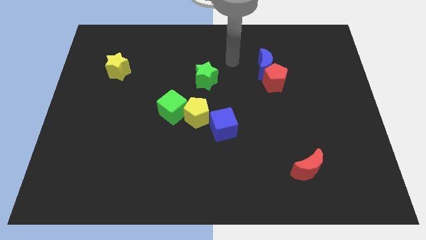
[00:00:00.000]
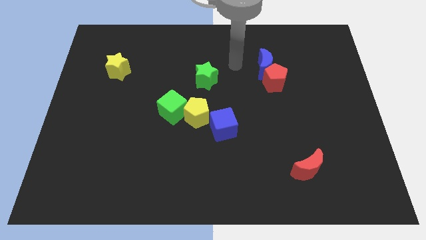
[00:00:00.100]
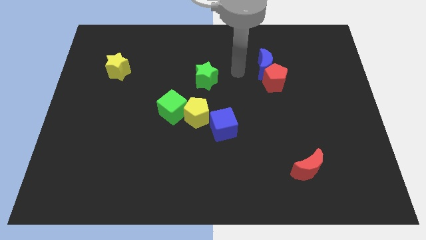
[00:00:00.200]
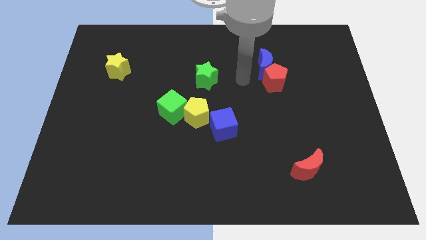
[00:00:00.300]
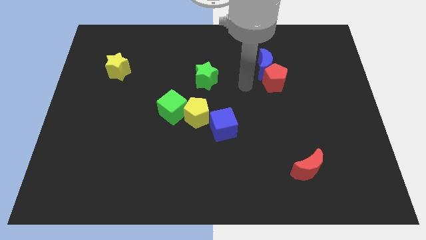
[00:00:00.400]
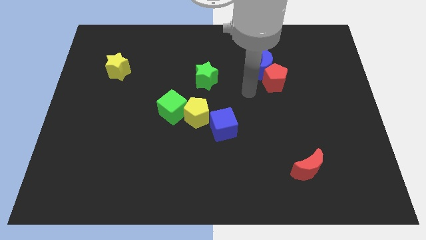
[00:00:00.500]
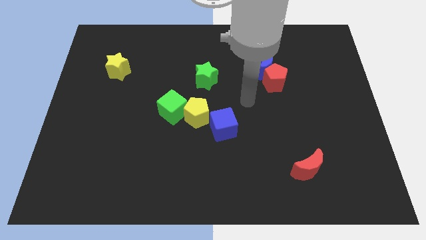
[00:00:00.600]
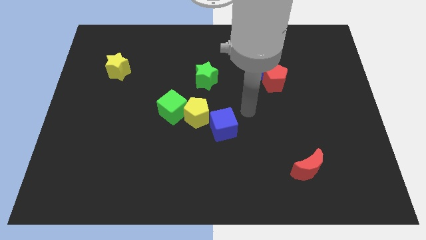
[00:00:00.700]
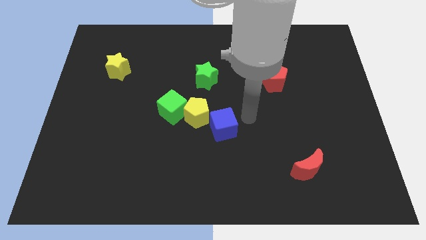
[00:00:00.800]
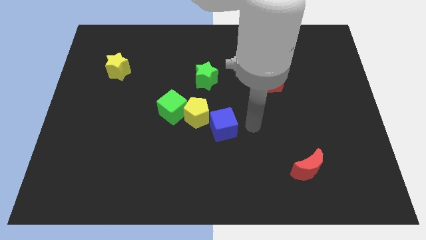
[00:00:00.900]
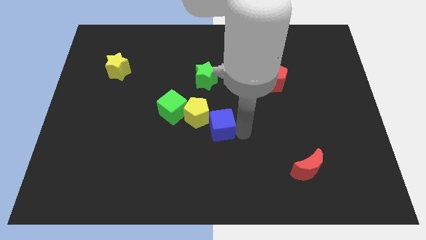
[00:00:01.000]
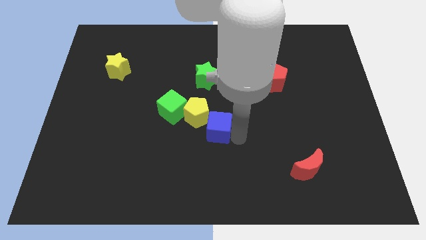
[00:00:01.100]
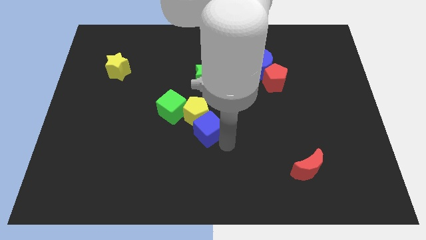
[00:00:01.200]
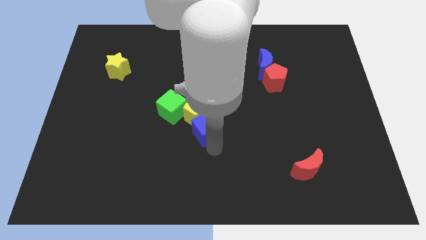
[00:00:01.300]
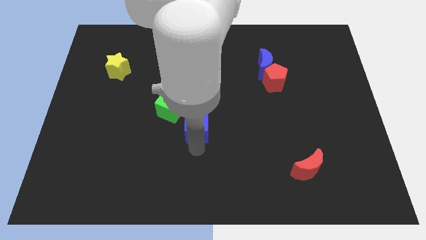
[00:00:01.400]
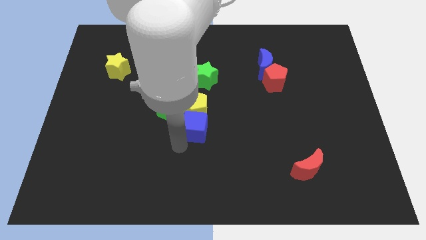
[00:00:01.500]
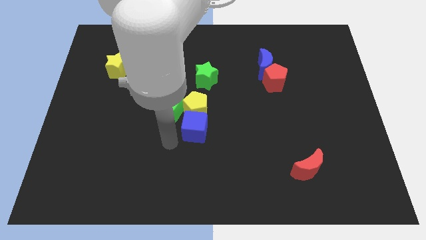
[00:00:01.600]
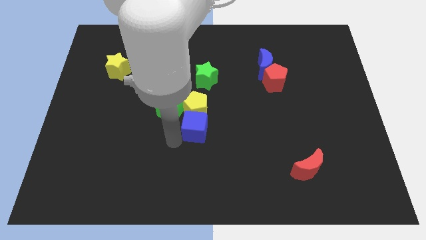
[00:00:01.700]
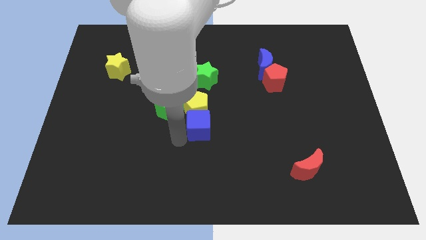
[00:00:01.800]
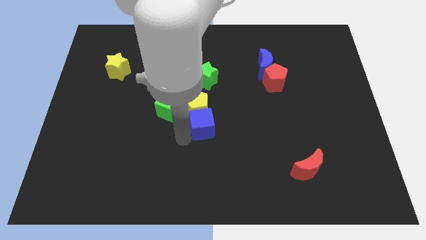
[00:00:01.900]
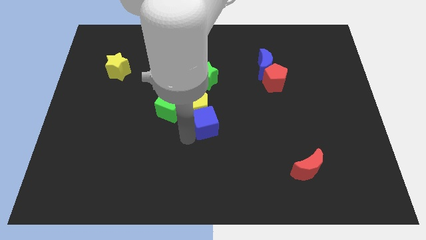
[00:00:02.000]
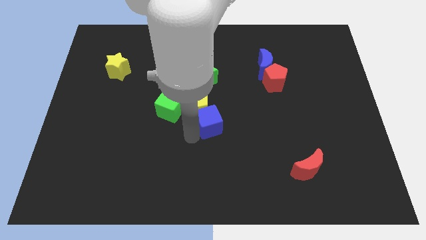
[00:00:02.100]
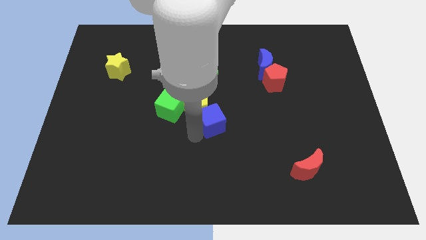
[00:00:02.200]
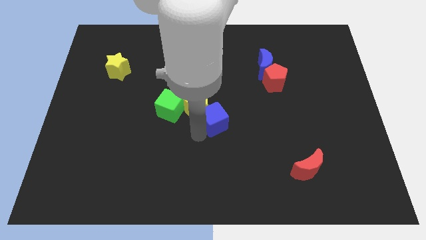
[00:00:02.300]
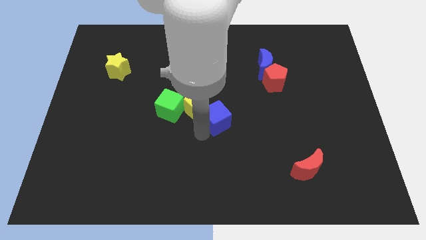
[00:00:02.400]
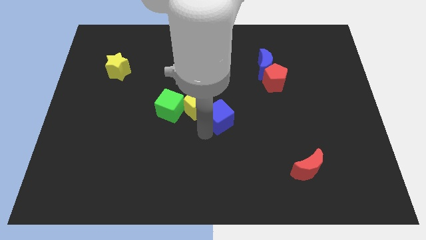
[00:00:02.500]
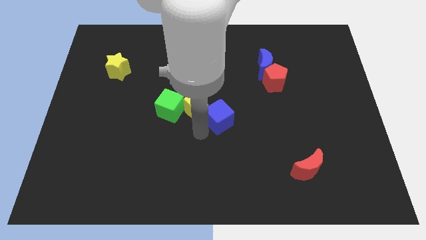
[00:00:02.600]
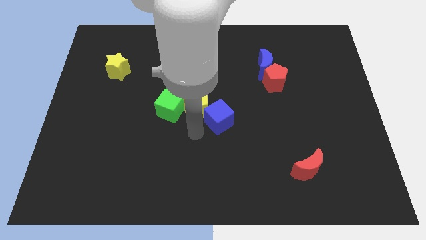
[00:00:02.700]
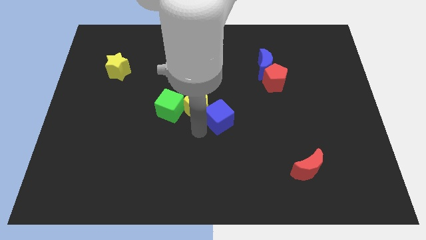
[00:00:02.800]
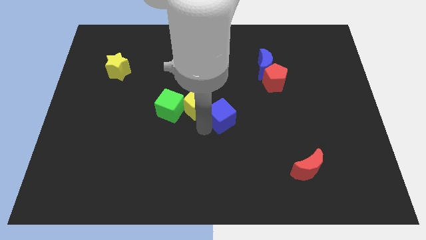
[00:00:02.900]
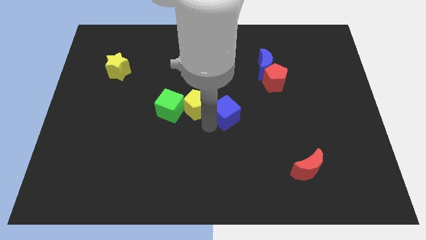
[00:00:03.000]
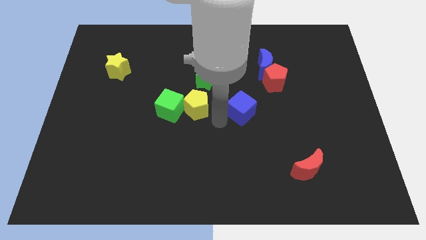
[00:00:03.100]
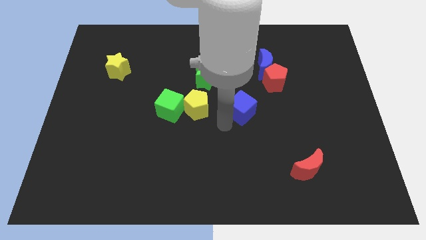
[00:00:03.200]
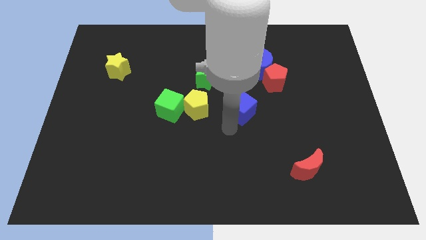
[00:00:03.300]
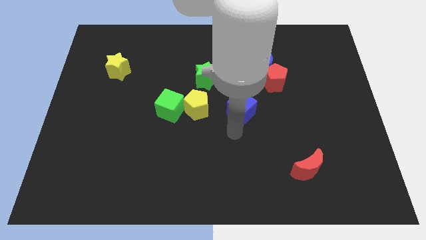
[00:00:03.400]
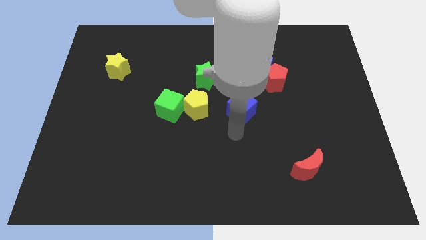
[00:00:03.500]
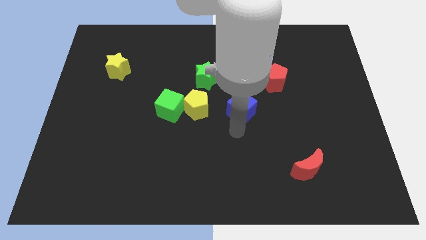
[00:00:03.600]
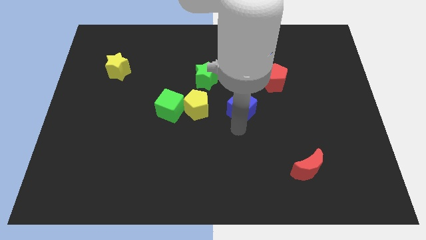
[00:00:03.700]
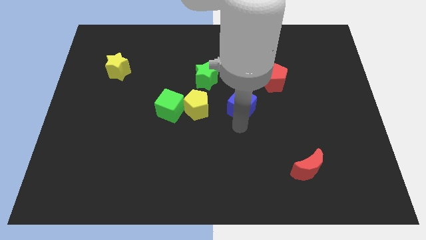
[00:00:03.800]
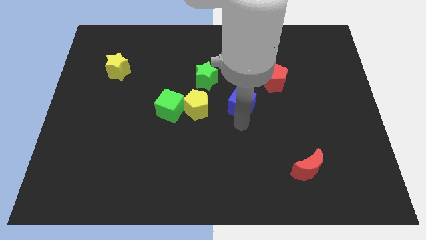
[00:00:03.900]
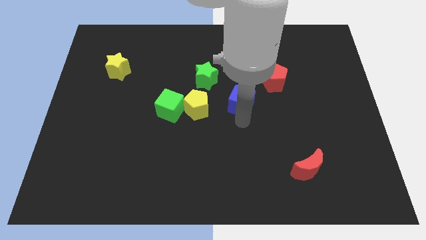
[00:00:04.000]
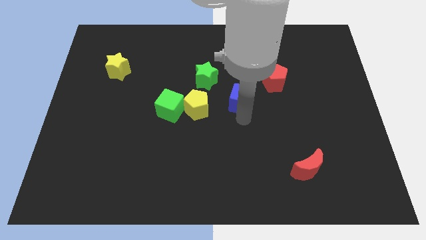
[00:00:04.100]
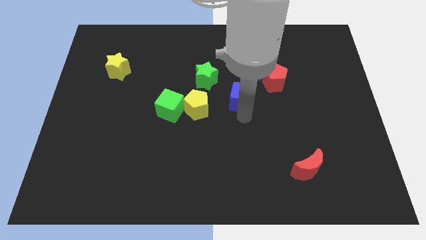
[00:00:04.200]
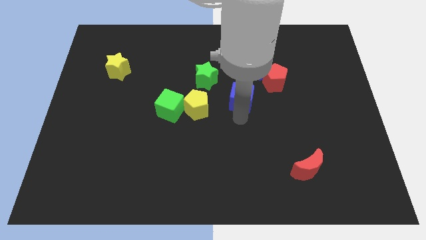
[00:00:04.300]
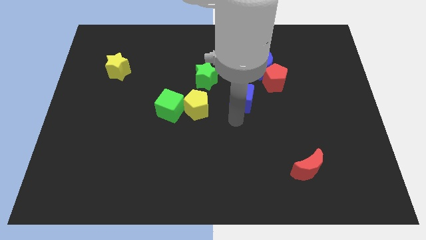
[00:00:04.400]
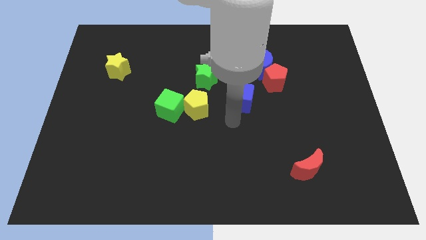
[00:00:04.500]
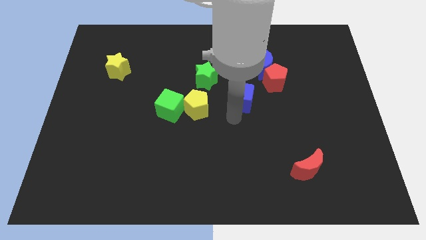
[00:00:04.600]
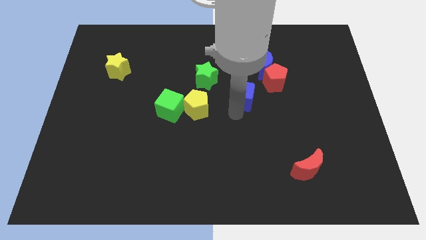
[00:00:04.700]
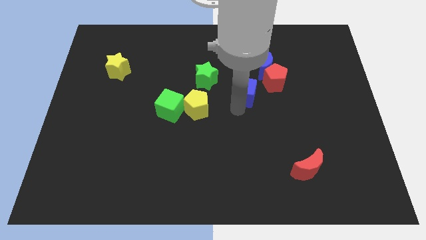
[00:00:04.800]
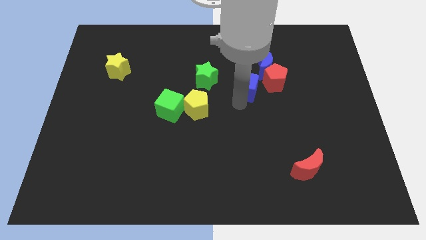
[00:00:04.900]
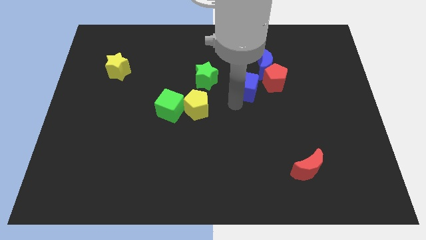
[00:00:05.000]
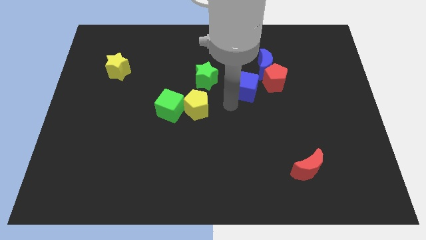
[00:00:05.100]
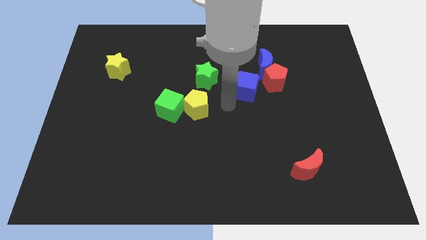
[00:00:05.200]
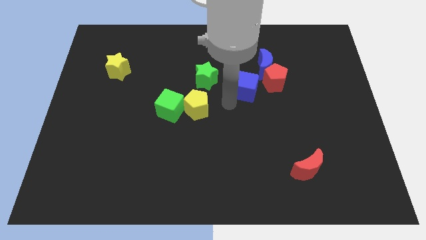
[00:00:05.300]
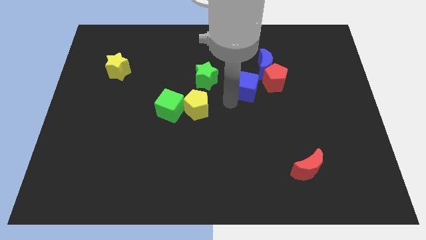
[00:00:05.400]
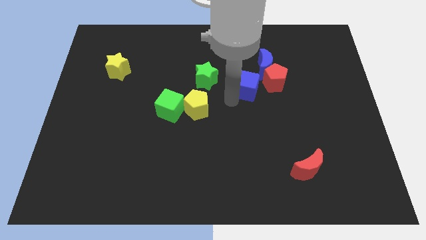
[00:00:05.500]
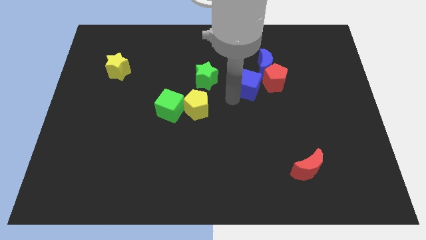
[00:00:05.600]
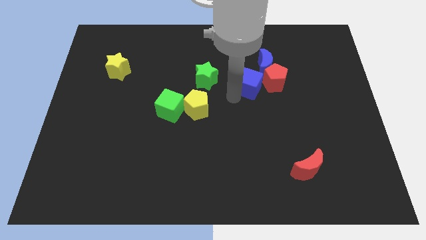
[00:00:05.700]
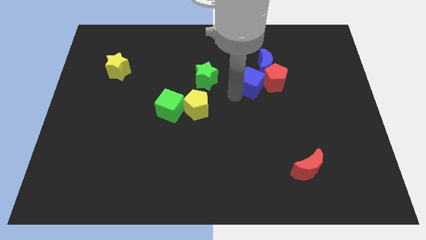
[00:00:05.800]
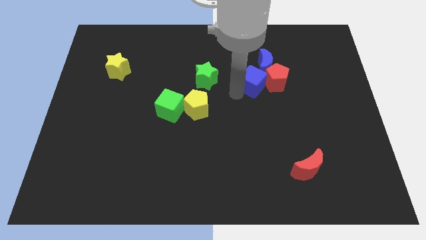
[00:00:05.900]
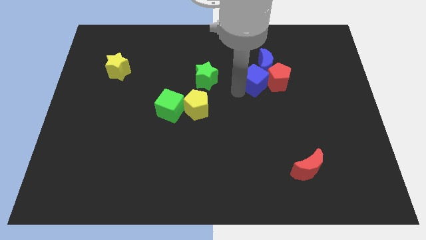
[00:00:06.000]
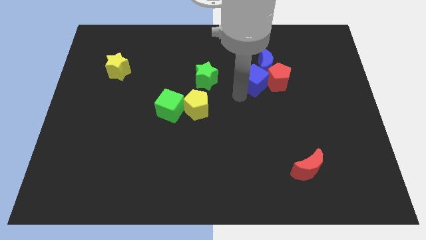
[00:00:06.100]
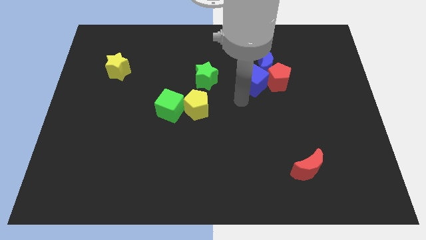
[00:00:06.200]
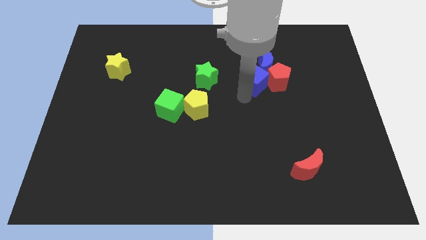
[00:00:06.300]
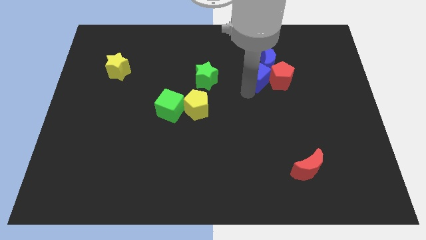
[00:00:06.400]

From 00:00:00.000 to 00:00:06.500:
put the blue cube next to the blue moon
